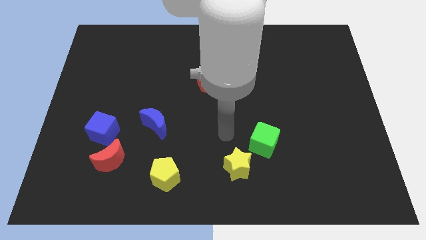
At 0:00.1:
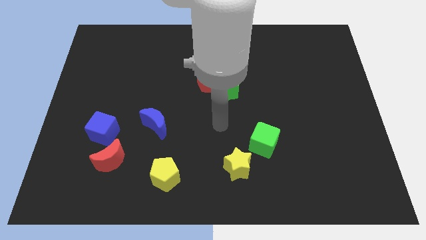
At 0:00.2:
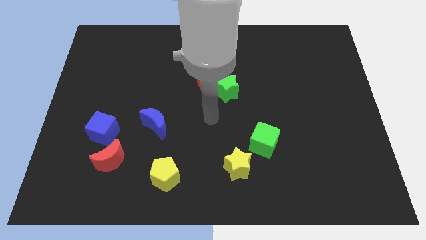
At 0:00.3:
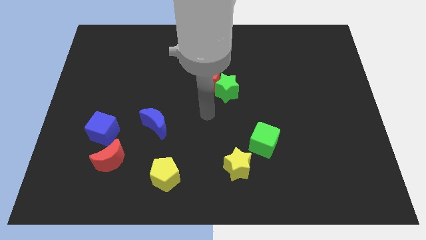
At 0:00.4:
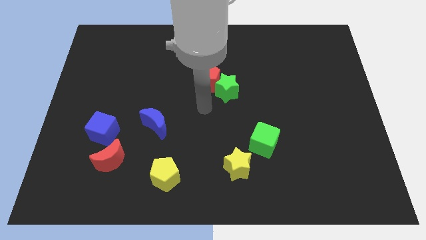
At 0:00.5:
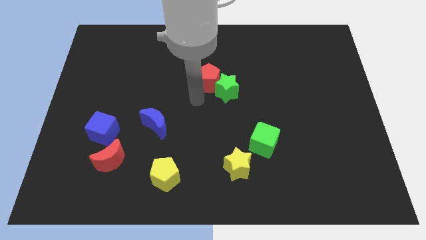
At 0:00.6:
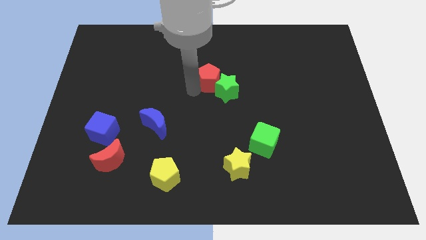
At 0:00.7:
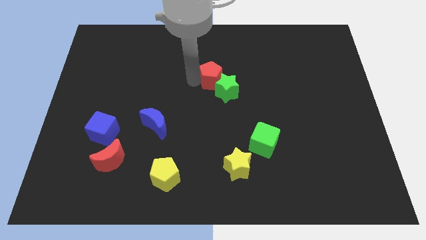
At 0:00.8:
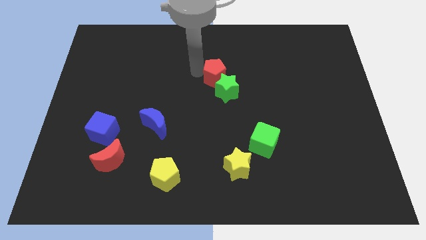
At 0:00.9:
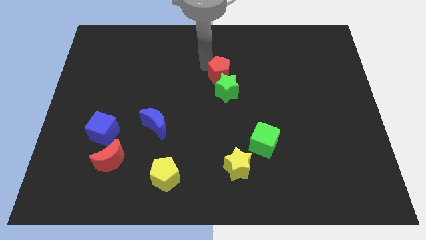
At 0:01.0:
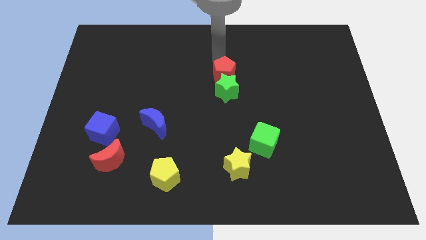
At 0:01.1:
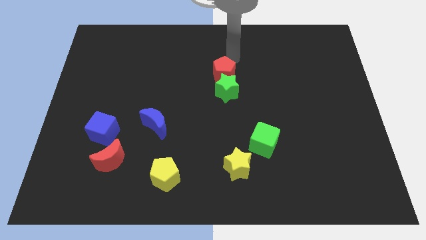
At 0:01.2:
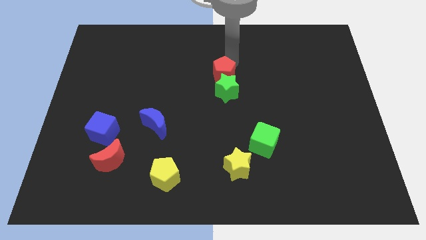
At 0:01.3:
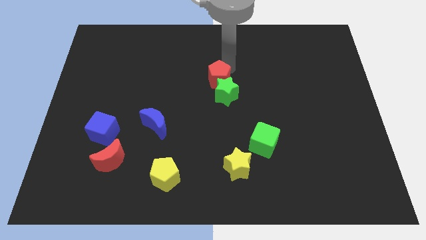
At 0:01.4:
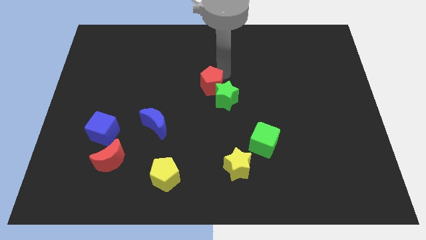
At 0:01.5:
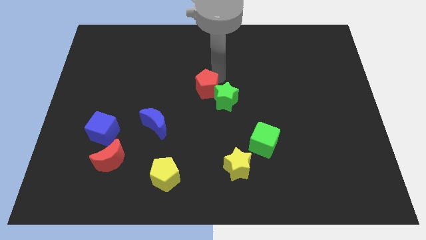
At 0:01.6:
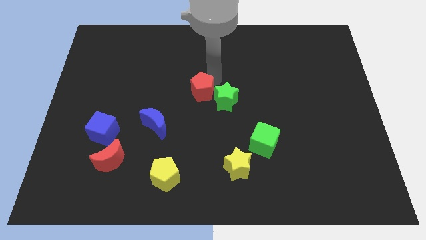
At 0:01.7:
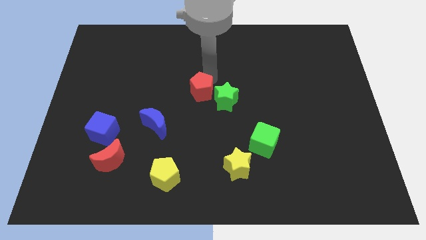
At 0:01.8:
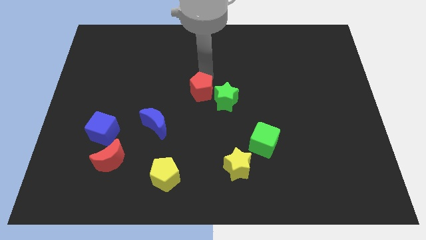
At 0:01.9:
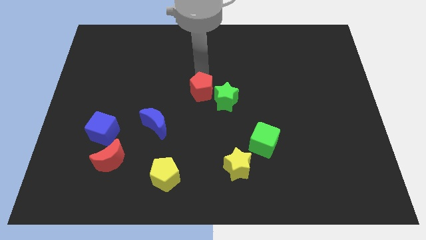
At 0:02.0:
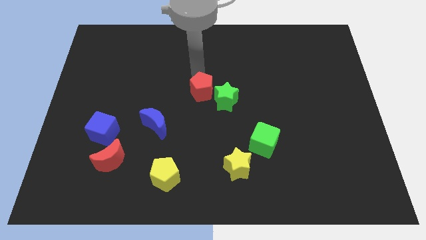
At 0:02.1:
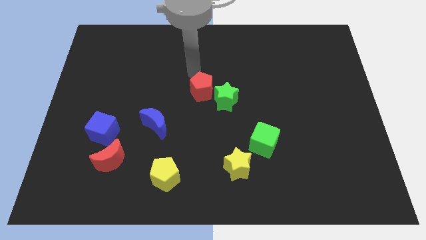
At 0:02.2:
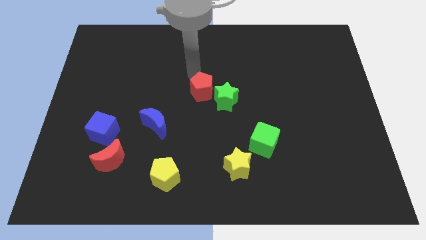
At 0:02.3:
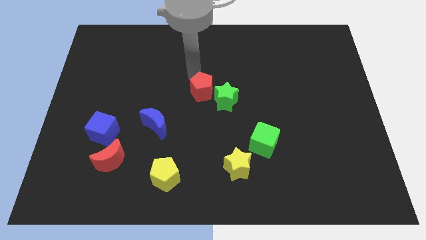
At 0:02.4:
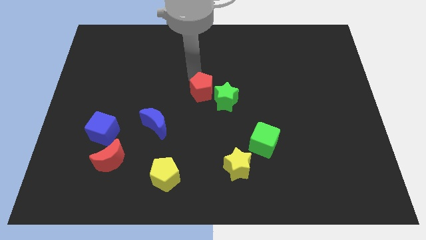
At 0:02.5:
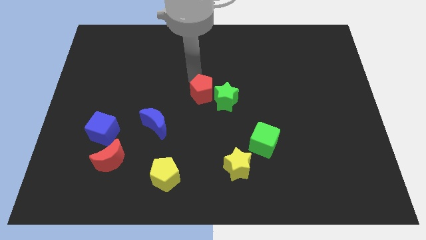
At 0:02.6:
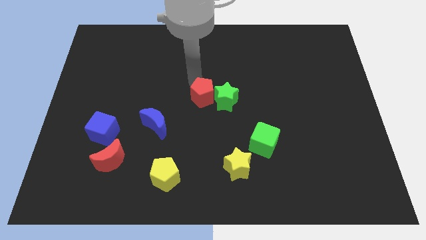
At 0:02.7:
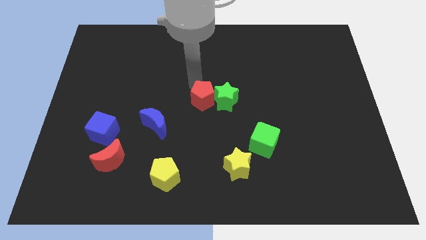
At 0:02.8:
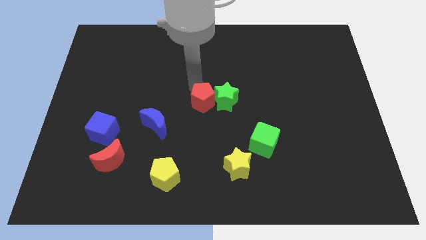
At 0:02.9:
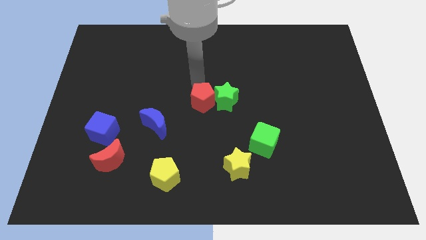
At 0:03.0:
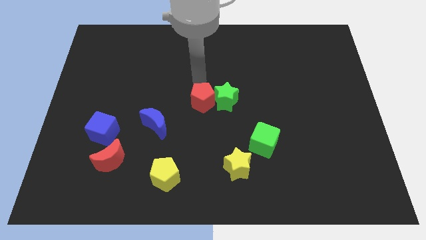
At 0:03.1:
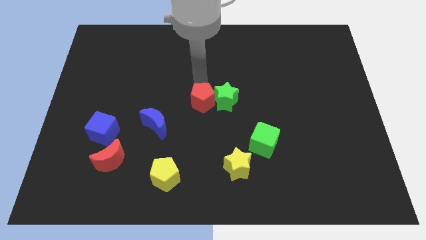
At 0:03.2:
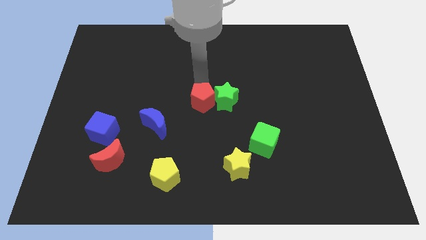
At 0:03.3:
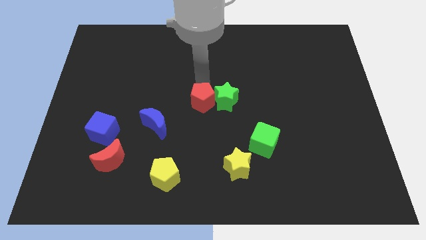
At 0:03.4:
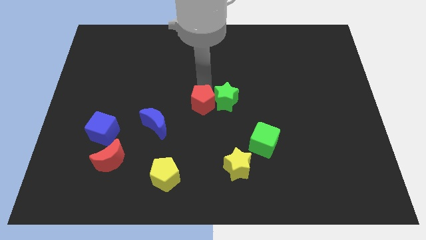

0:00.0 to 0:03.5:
push the red pentagon somewhat down

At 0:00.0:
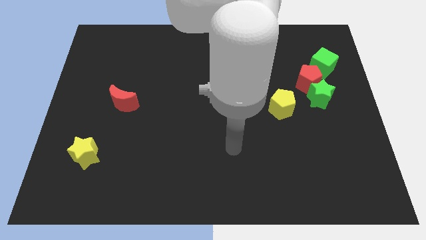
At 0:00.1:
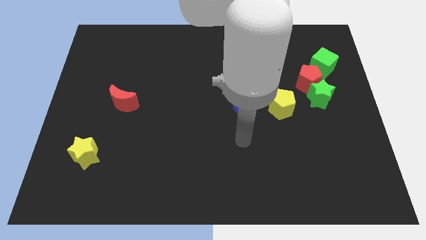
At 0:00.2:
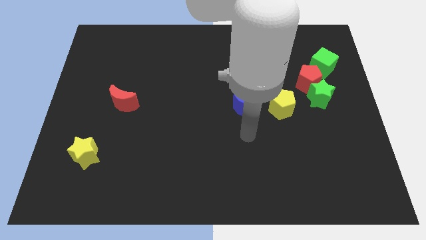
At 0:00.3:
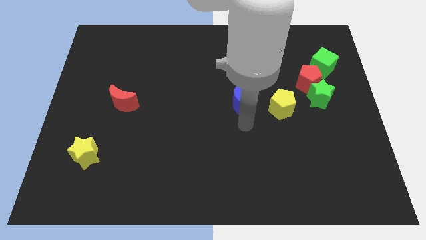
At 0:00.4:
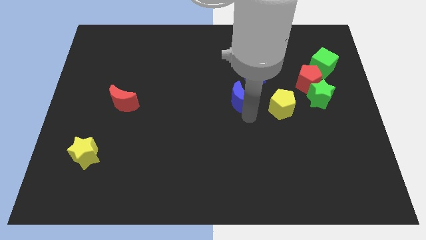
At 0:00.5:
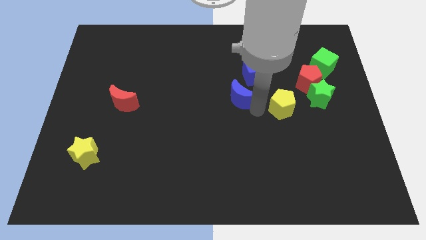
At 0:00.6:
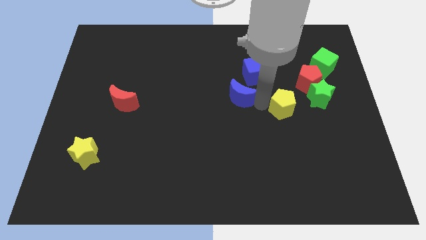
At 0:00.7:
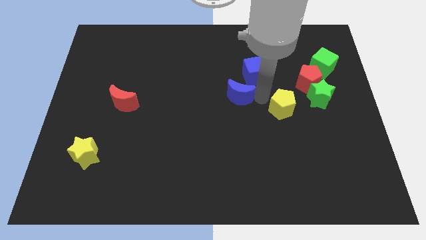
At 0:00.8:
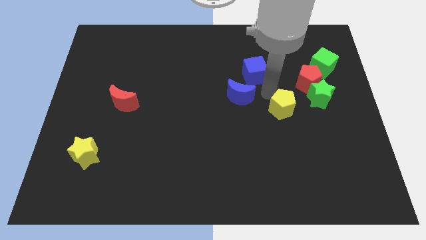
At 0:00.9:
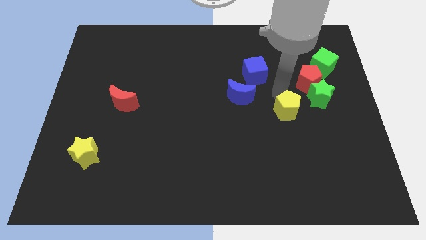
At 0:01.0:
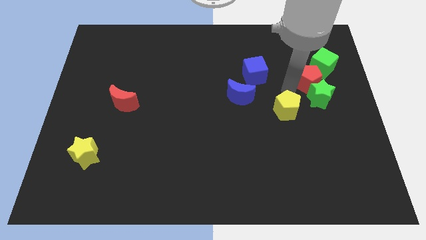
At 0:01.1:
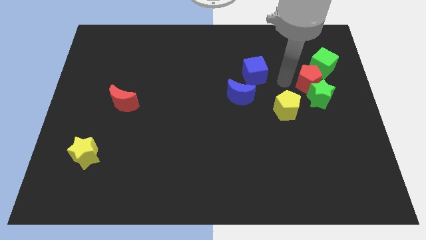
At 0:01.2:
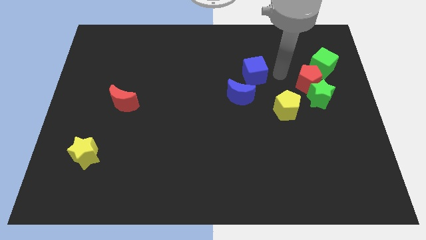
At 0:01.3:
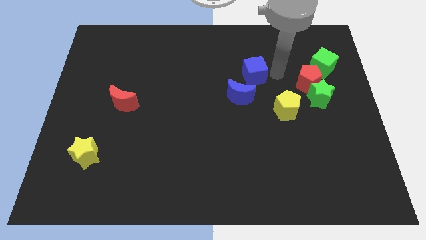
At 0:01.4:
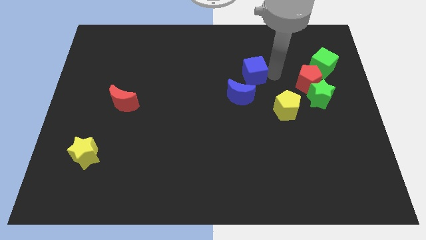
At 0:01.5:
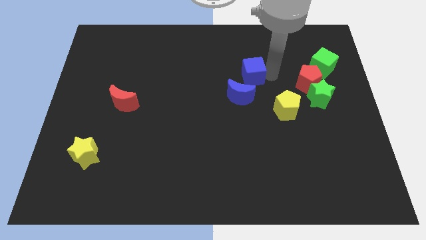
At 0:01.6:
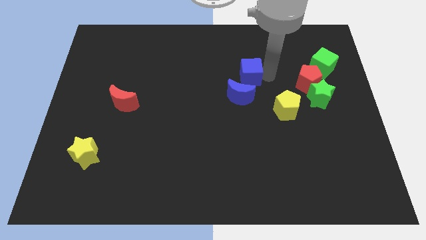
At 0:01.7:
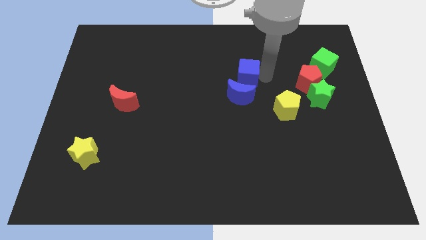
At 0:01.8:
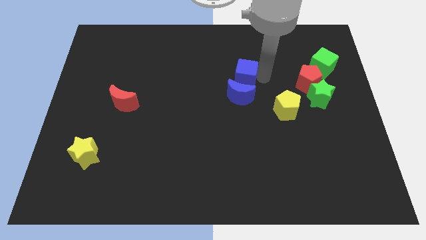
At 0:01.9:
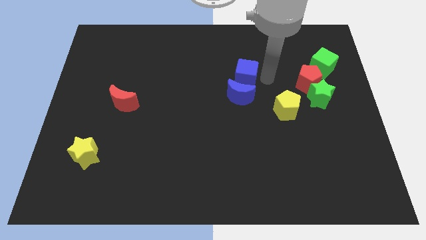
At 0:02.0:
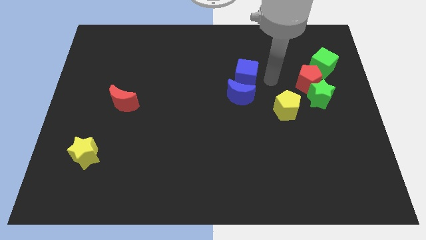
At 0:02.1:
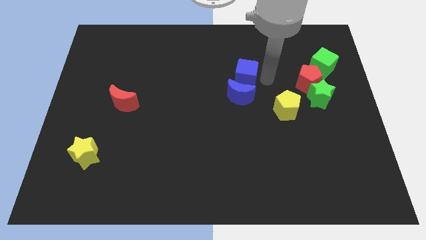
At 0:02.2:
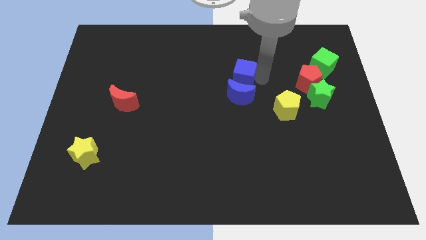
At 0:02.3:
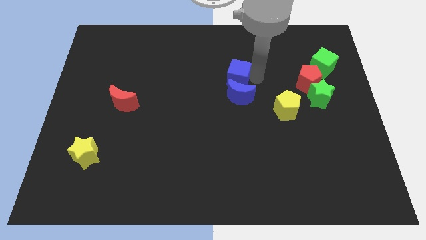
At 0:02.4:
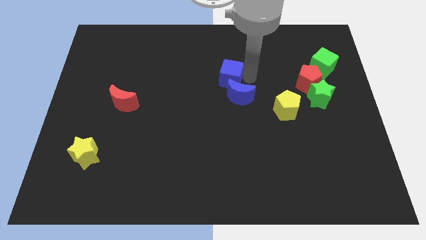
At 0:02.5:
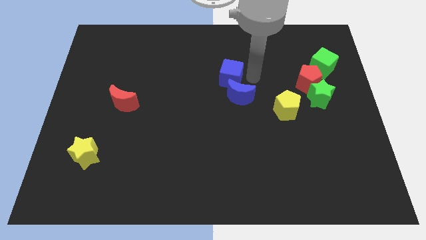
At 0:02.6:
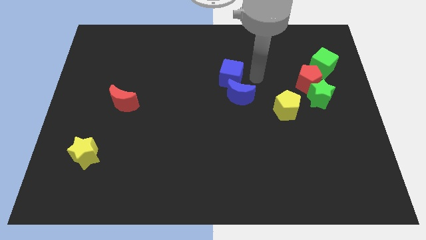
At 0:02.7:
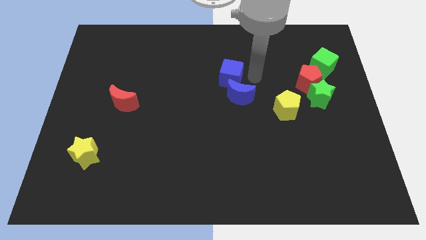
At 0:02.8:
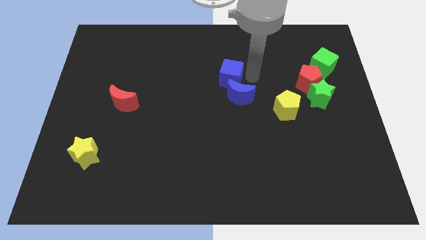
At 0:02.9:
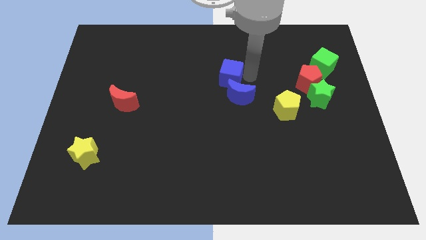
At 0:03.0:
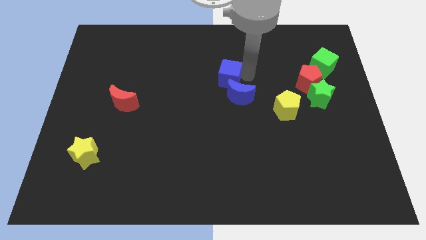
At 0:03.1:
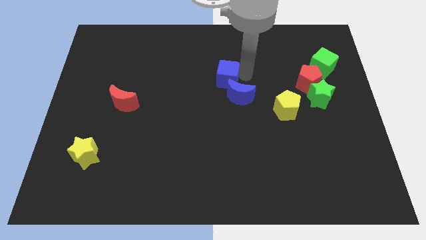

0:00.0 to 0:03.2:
move the blue cube slightly to the left

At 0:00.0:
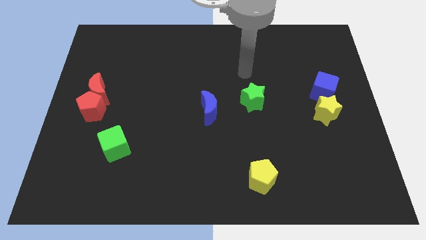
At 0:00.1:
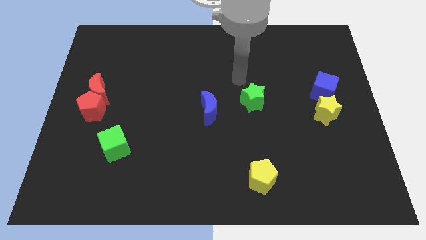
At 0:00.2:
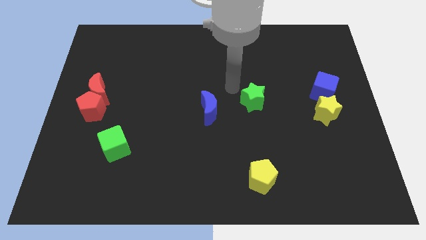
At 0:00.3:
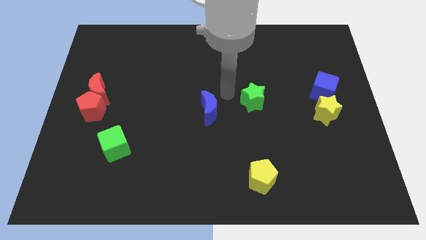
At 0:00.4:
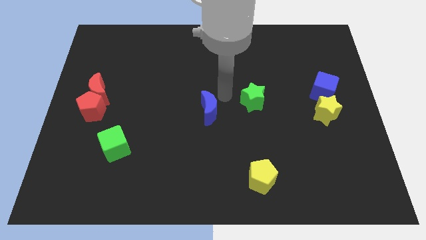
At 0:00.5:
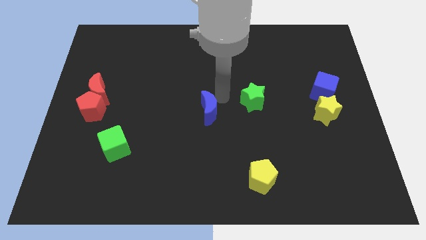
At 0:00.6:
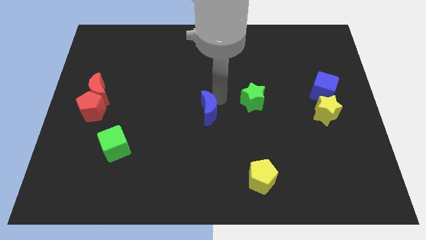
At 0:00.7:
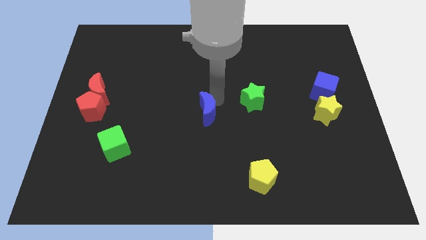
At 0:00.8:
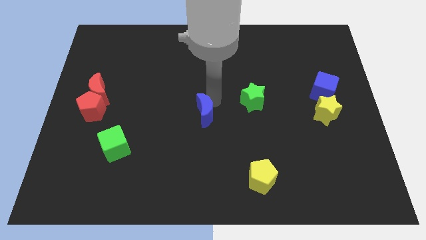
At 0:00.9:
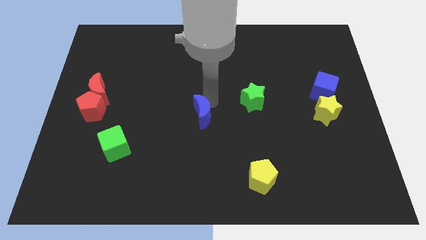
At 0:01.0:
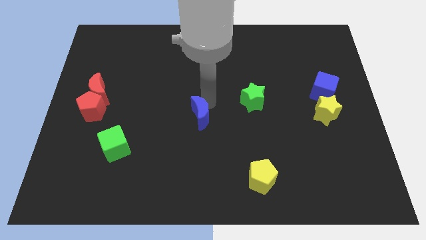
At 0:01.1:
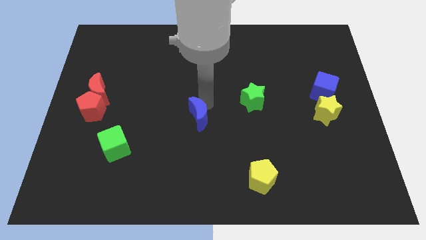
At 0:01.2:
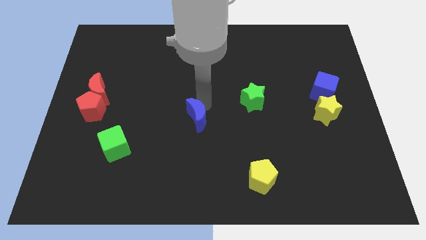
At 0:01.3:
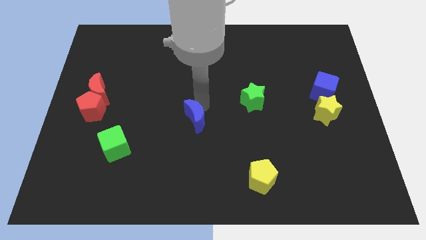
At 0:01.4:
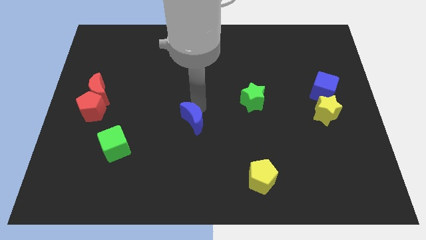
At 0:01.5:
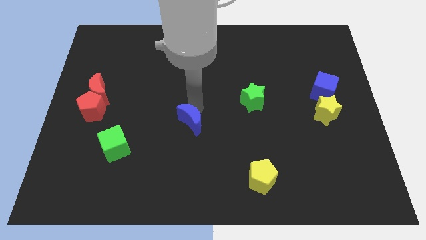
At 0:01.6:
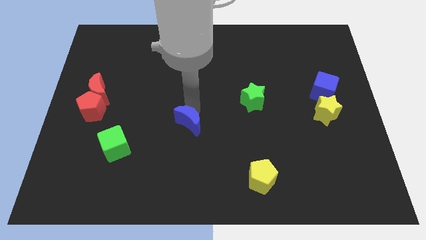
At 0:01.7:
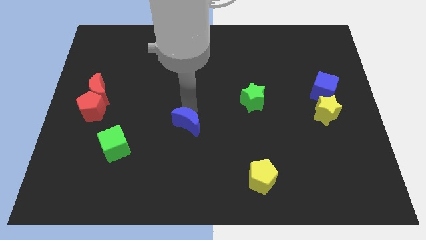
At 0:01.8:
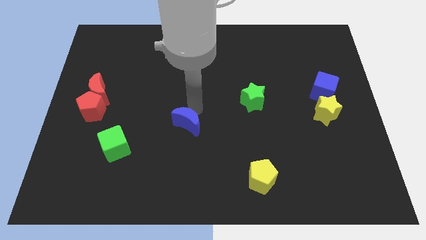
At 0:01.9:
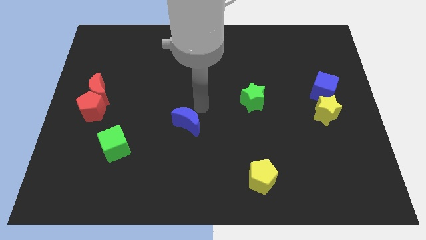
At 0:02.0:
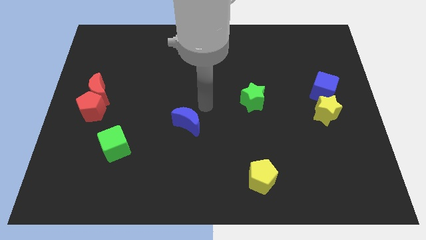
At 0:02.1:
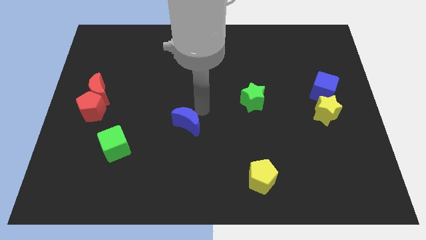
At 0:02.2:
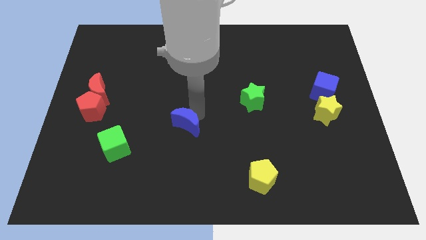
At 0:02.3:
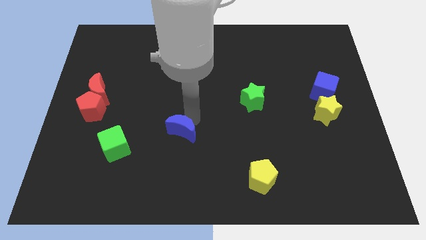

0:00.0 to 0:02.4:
move the blue moon downwards and left somewhat
